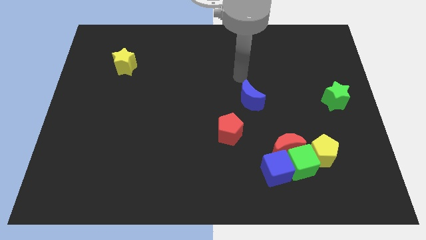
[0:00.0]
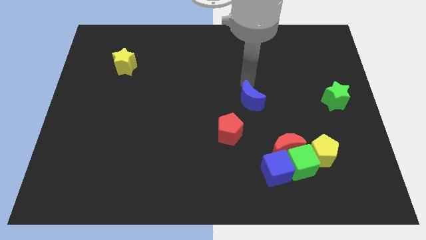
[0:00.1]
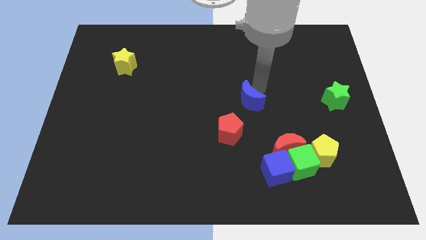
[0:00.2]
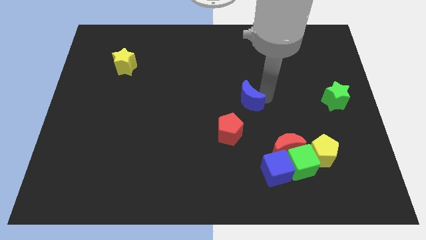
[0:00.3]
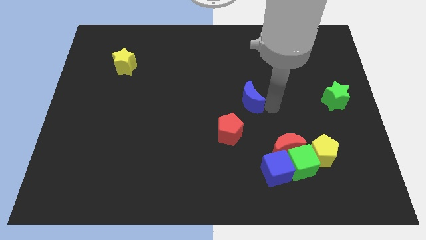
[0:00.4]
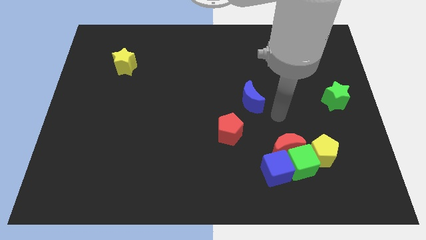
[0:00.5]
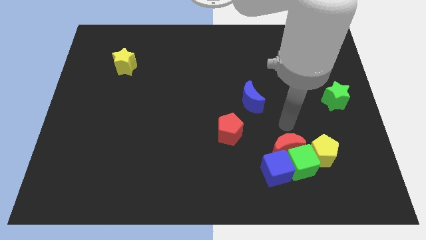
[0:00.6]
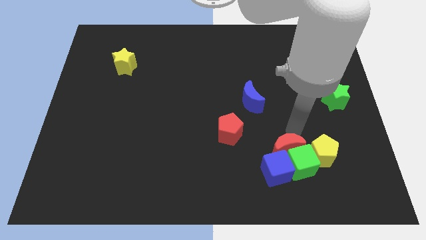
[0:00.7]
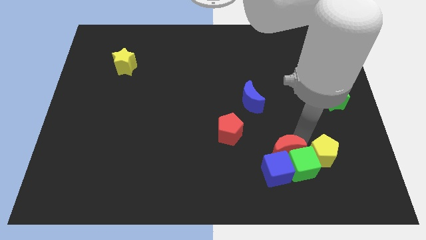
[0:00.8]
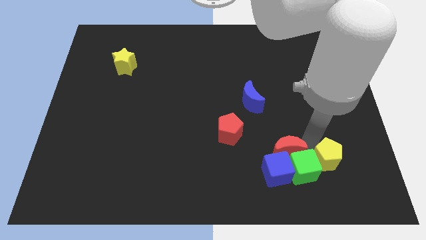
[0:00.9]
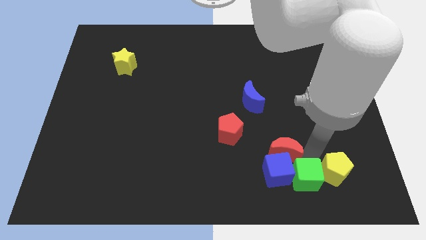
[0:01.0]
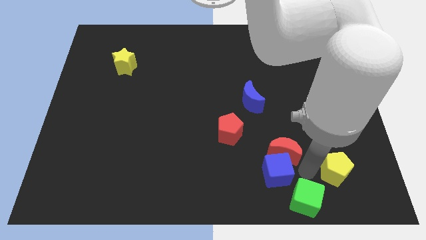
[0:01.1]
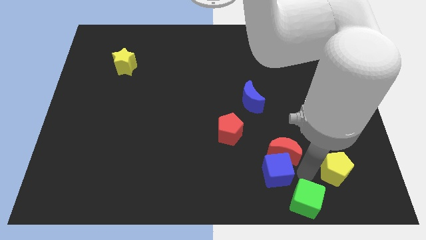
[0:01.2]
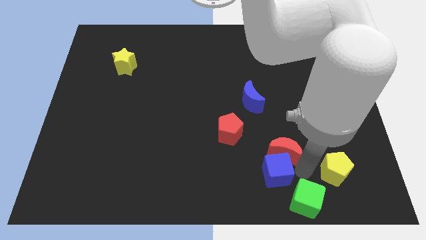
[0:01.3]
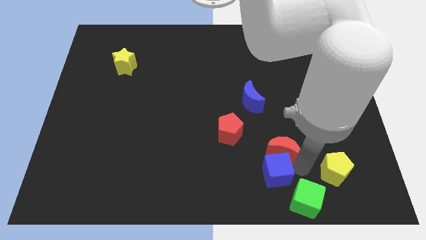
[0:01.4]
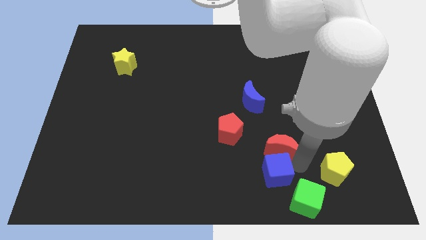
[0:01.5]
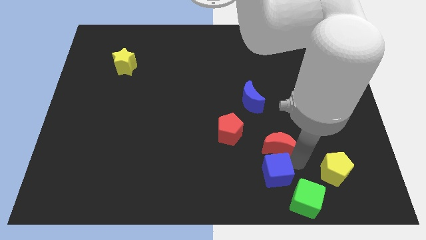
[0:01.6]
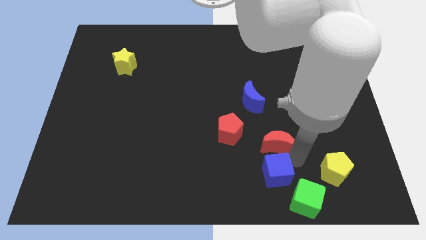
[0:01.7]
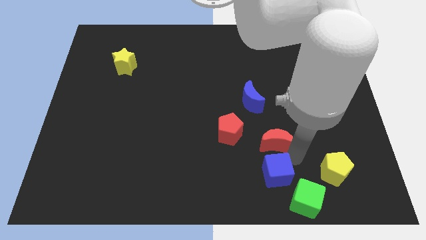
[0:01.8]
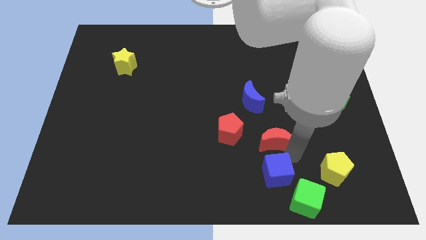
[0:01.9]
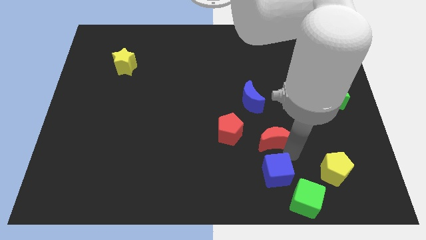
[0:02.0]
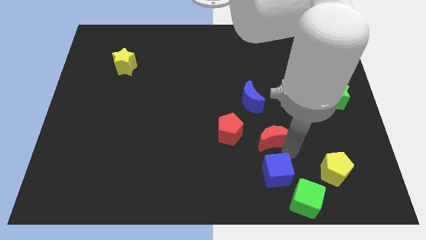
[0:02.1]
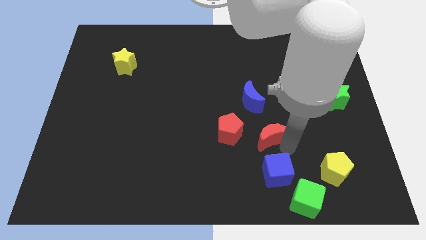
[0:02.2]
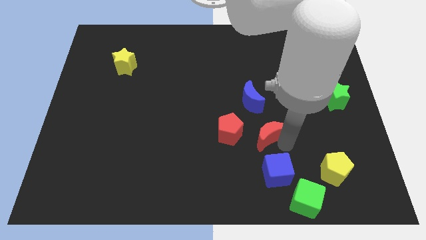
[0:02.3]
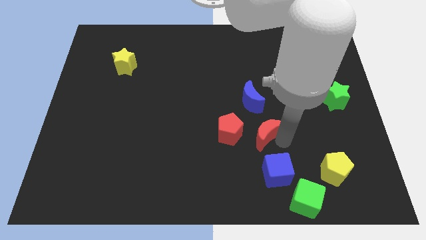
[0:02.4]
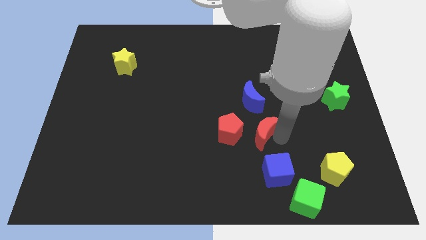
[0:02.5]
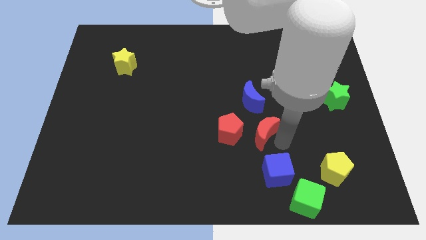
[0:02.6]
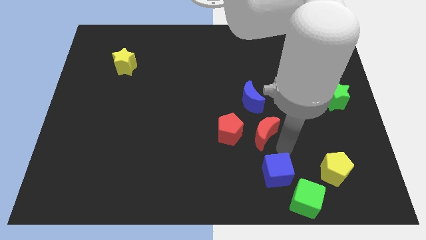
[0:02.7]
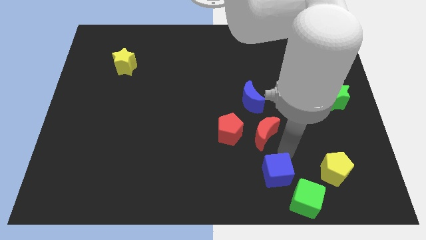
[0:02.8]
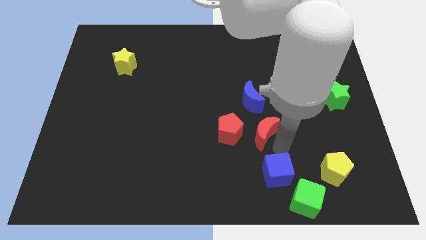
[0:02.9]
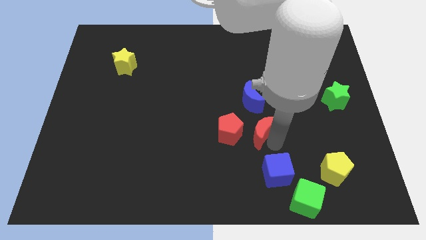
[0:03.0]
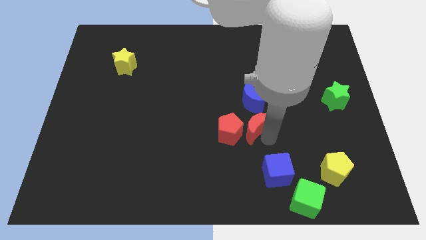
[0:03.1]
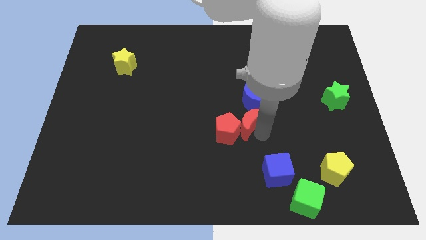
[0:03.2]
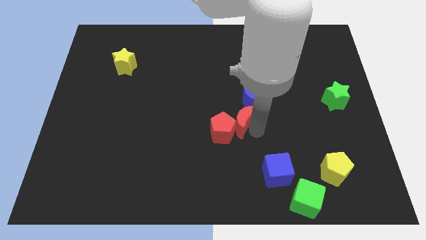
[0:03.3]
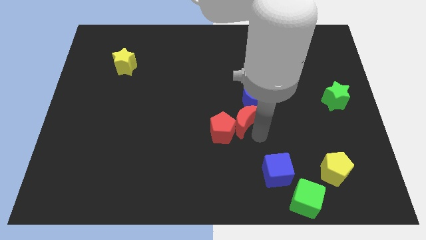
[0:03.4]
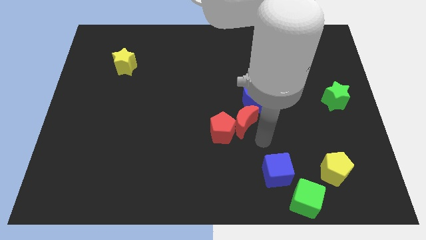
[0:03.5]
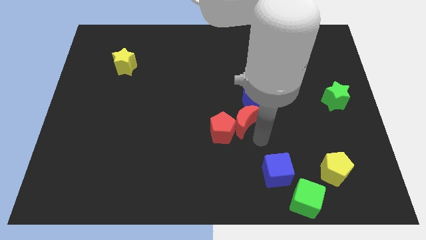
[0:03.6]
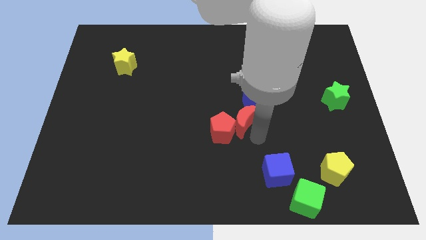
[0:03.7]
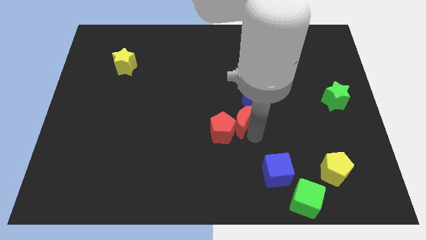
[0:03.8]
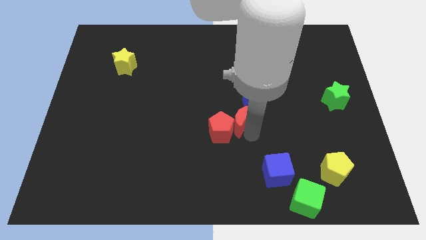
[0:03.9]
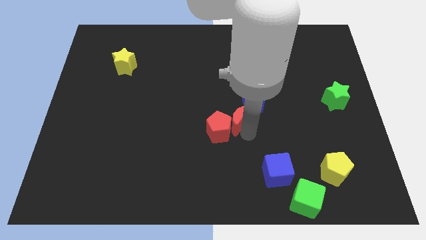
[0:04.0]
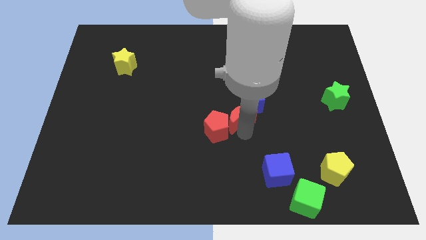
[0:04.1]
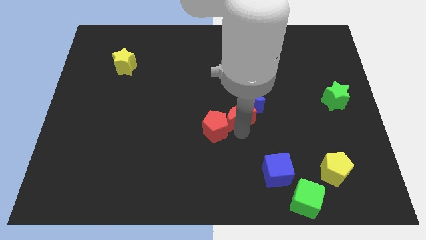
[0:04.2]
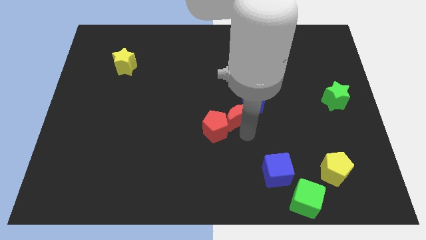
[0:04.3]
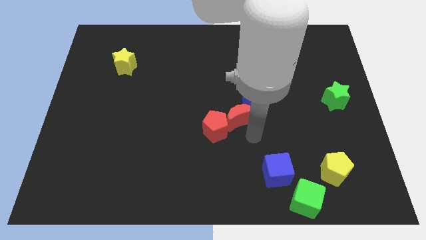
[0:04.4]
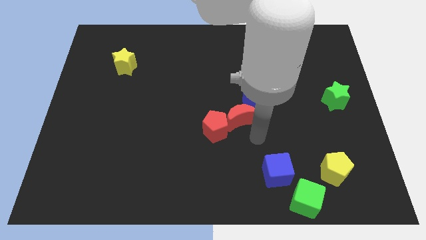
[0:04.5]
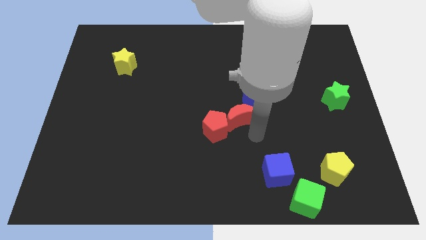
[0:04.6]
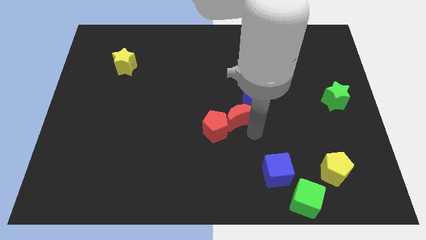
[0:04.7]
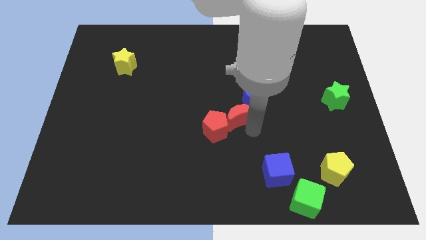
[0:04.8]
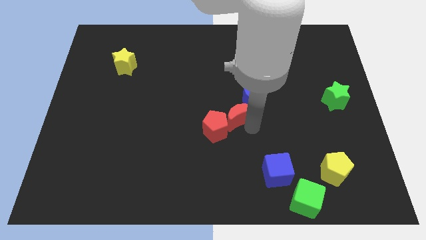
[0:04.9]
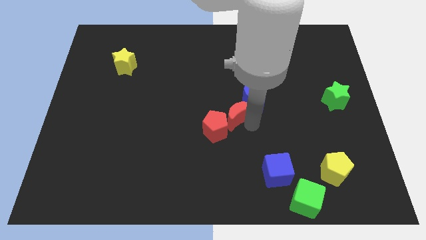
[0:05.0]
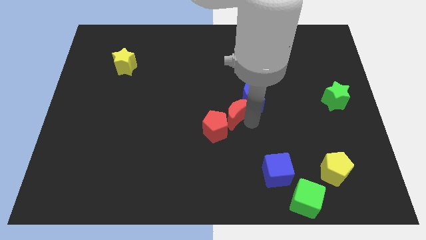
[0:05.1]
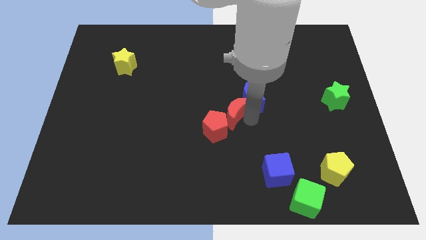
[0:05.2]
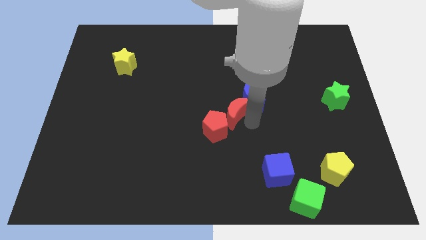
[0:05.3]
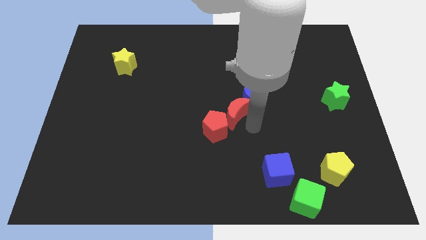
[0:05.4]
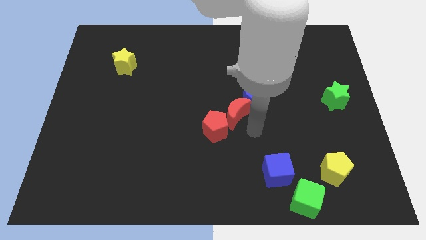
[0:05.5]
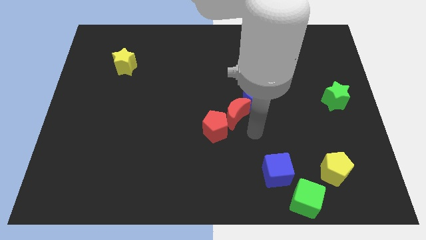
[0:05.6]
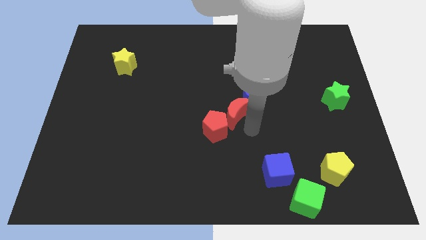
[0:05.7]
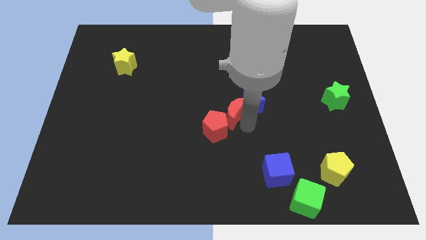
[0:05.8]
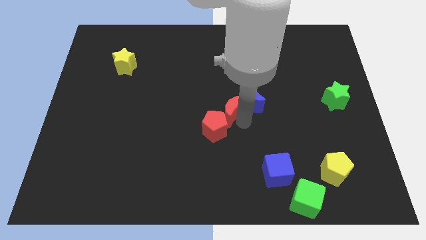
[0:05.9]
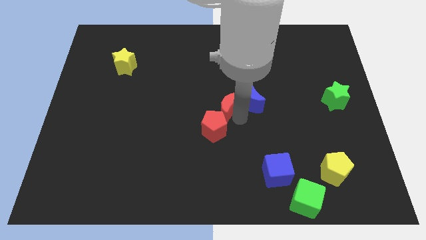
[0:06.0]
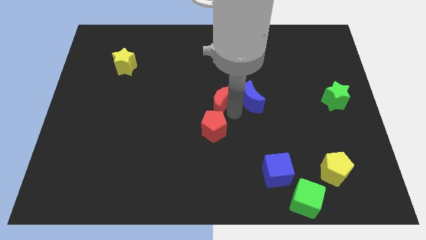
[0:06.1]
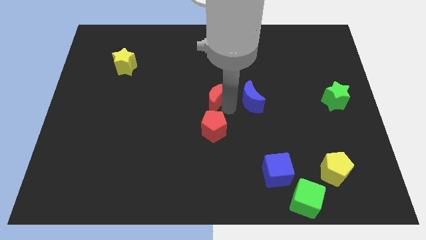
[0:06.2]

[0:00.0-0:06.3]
push the red moon diagonally up and to the left

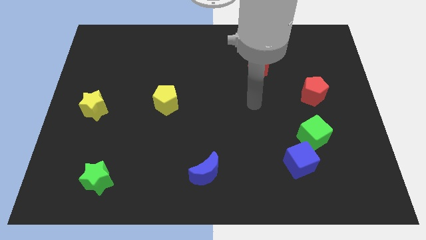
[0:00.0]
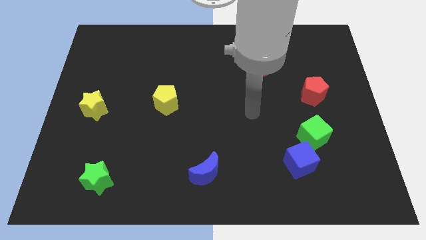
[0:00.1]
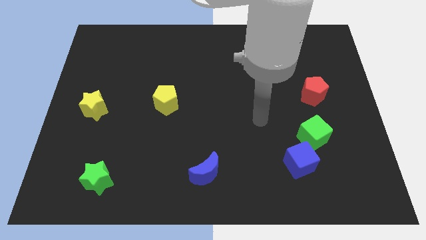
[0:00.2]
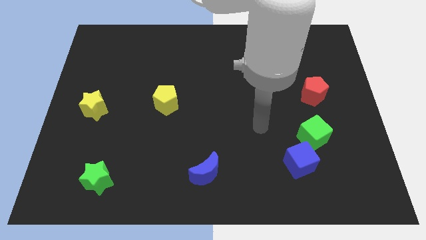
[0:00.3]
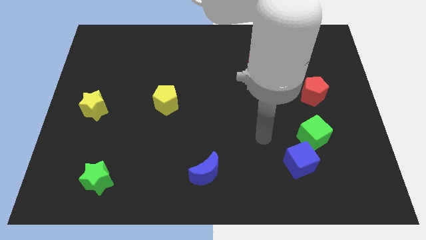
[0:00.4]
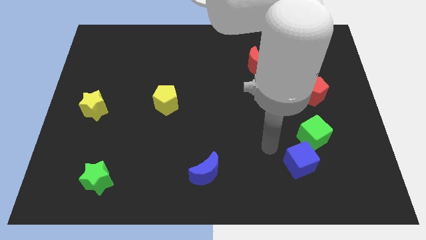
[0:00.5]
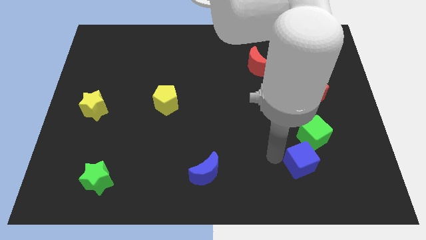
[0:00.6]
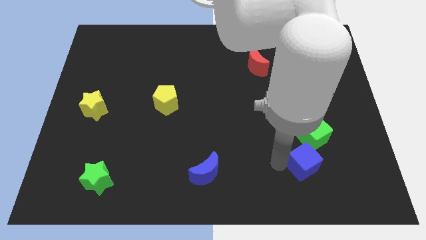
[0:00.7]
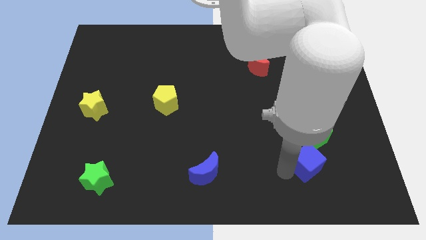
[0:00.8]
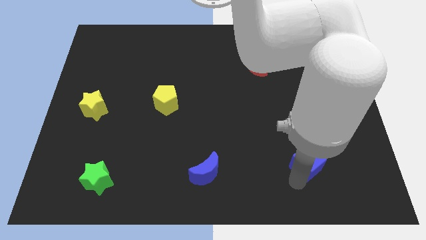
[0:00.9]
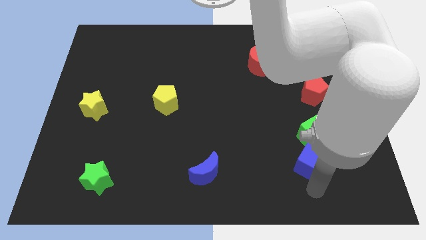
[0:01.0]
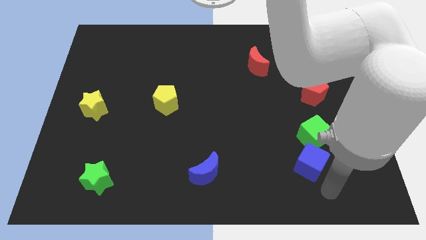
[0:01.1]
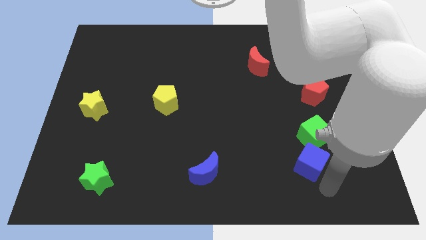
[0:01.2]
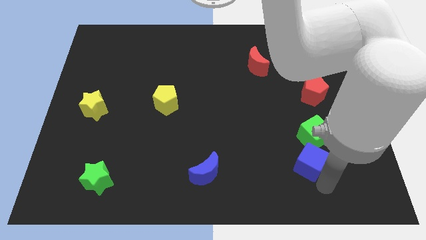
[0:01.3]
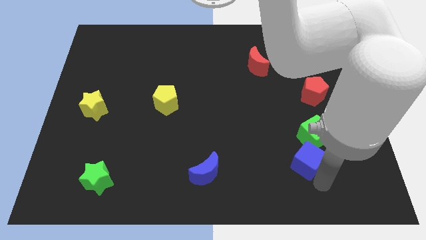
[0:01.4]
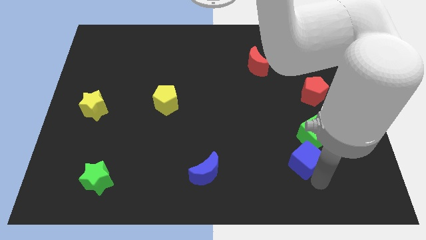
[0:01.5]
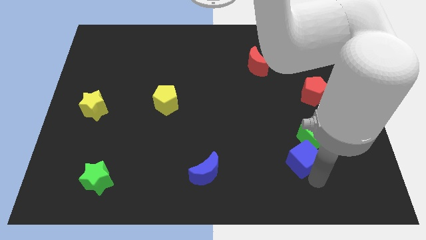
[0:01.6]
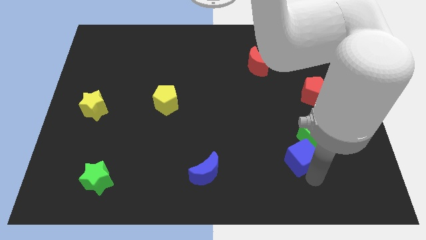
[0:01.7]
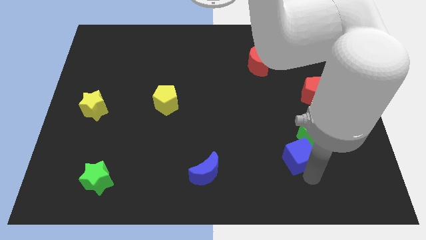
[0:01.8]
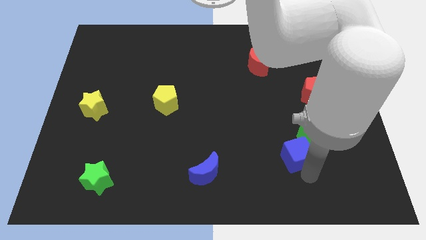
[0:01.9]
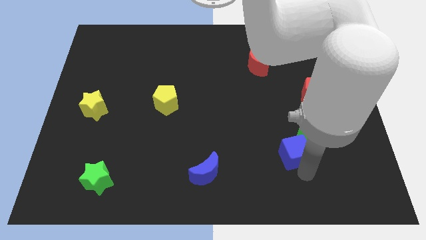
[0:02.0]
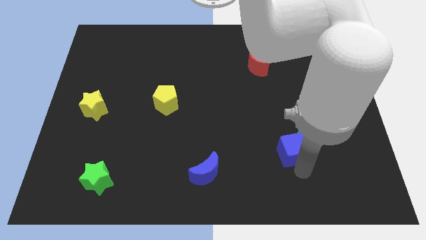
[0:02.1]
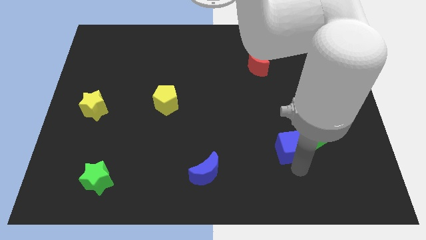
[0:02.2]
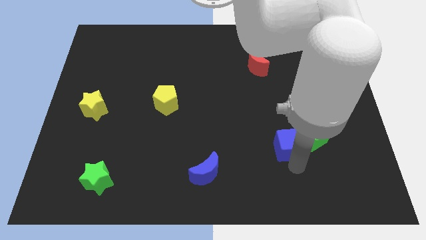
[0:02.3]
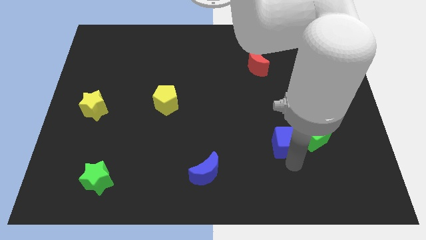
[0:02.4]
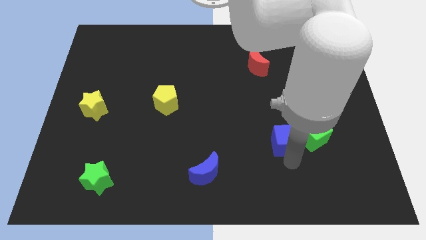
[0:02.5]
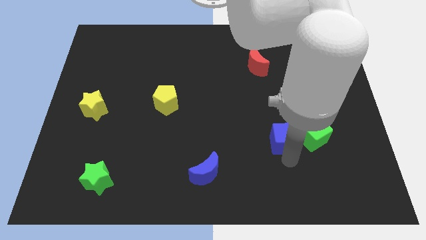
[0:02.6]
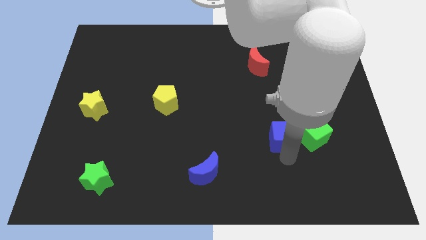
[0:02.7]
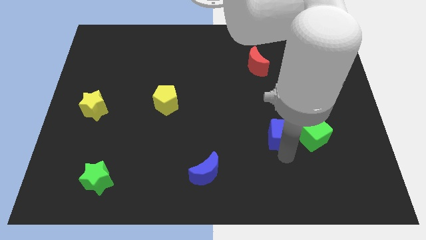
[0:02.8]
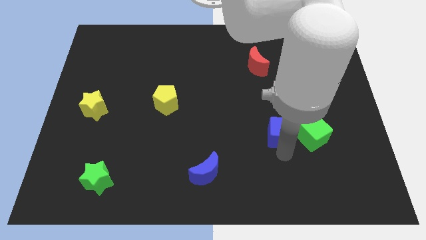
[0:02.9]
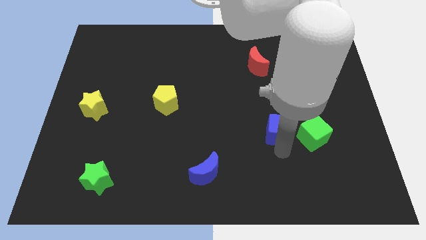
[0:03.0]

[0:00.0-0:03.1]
slightly push the blue cube upwards
